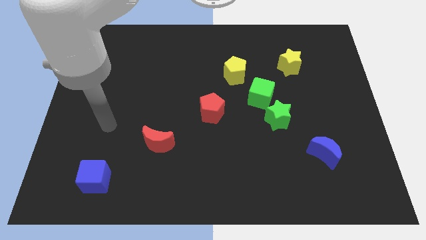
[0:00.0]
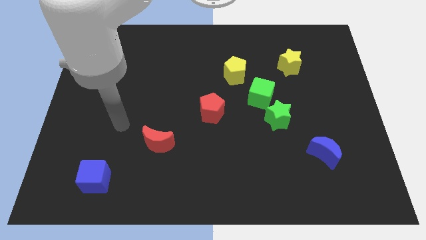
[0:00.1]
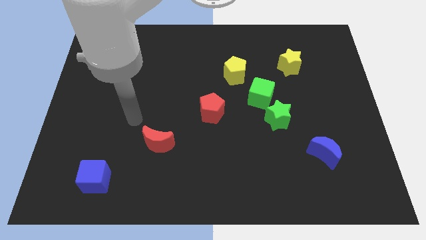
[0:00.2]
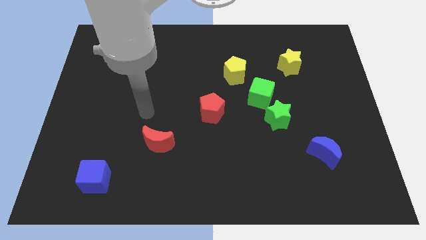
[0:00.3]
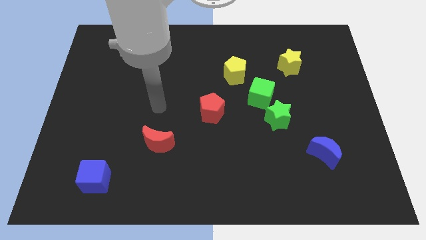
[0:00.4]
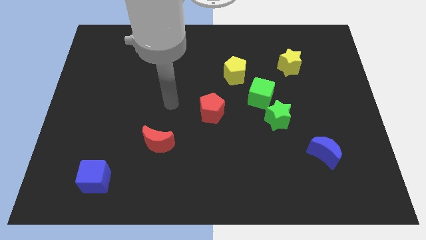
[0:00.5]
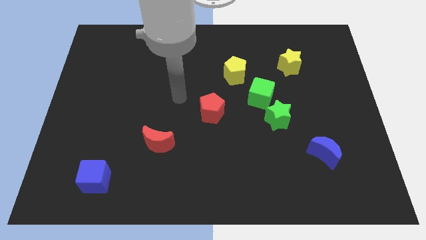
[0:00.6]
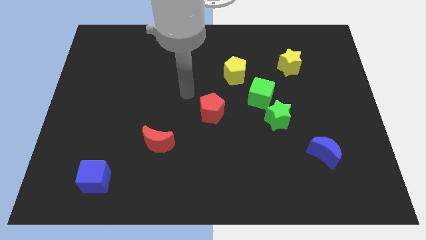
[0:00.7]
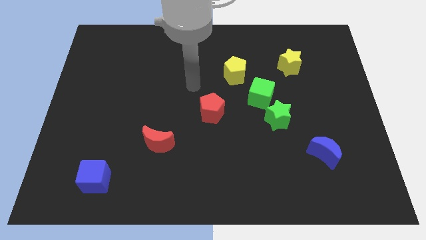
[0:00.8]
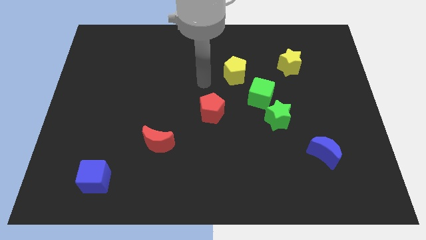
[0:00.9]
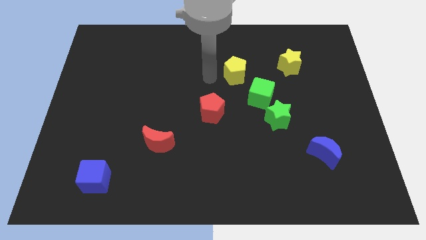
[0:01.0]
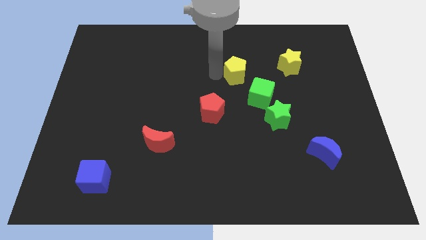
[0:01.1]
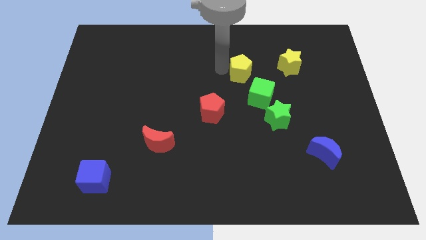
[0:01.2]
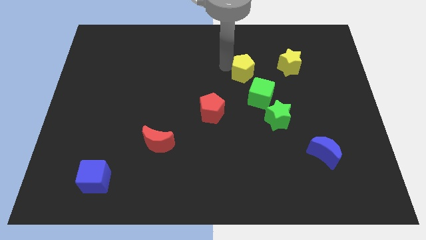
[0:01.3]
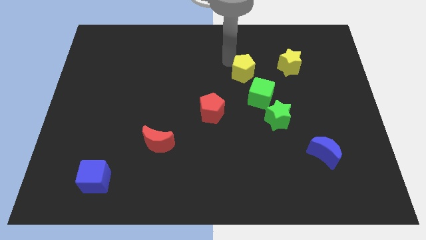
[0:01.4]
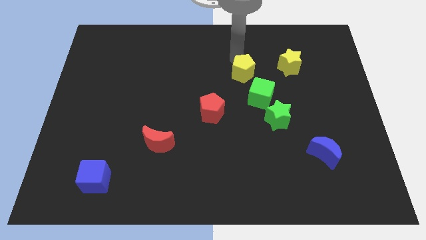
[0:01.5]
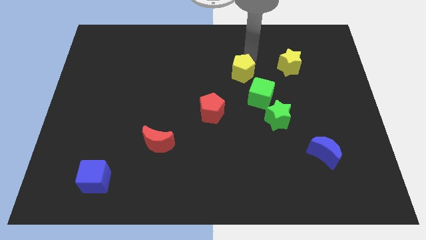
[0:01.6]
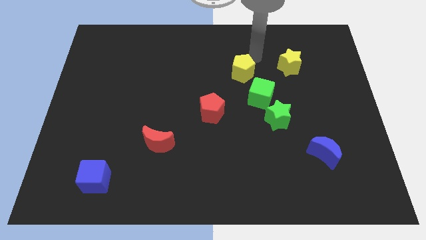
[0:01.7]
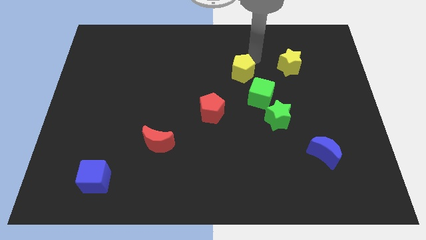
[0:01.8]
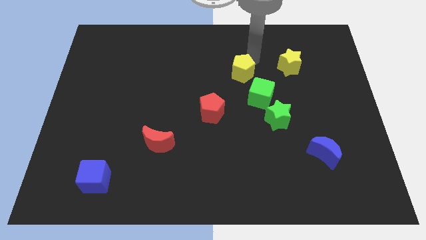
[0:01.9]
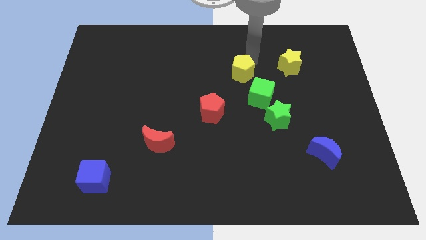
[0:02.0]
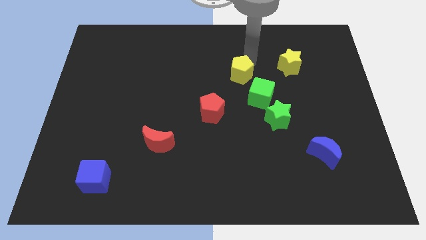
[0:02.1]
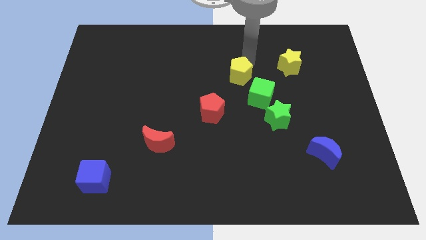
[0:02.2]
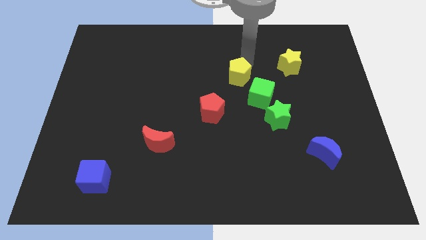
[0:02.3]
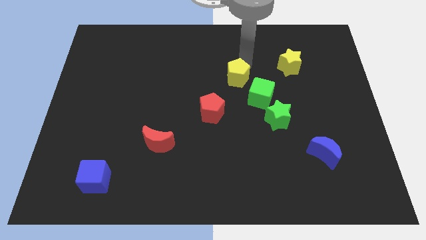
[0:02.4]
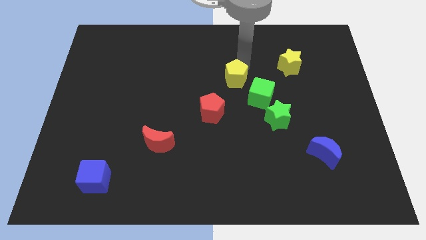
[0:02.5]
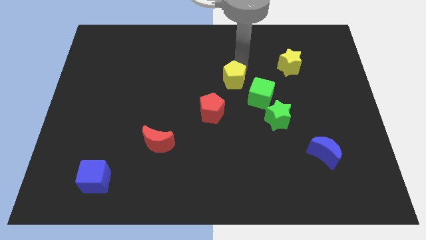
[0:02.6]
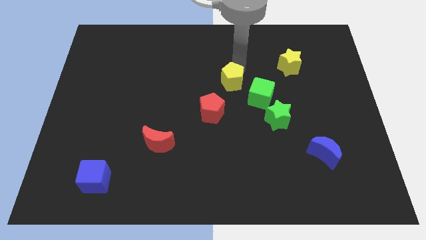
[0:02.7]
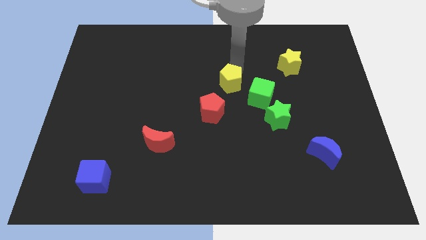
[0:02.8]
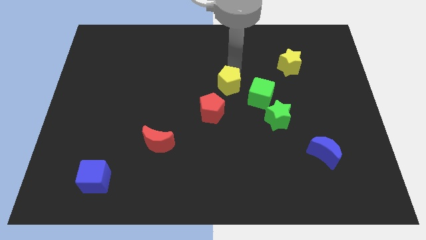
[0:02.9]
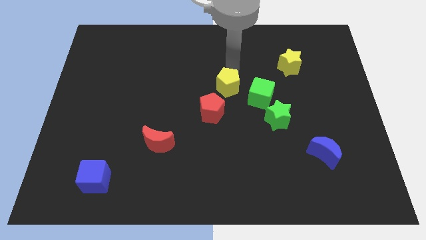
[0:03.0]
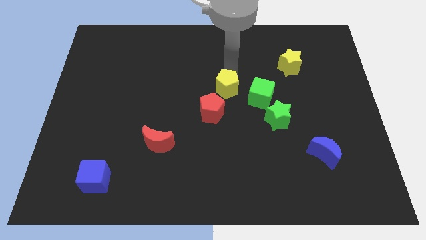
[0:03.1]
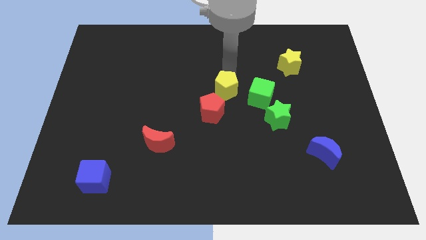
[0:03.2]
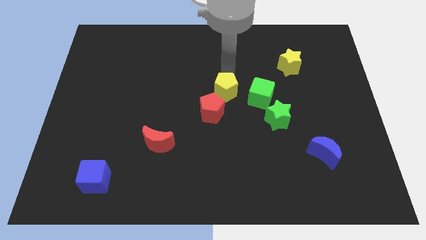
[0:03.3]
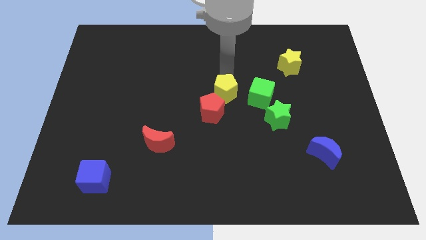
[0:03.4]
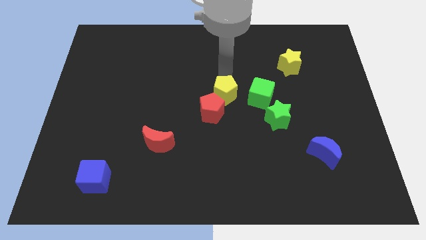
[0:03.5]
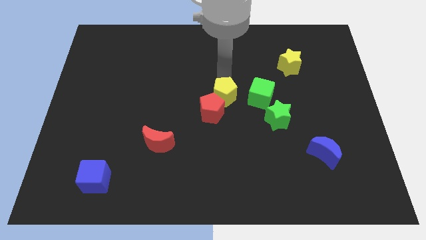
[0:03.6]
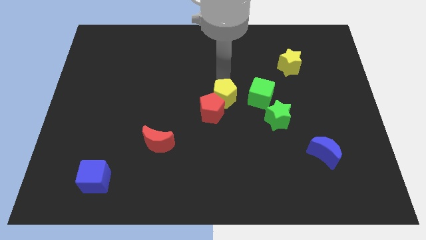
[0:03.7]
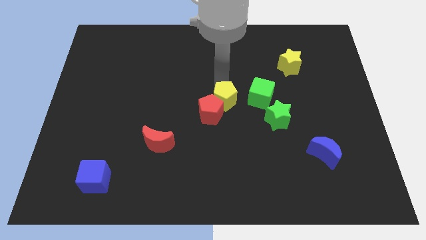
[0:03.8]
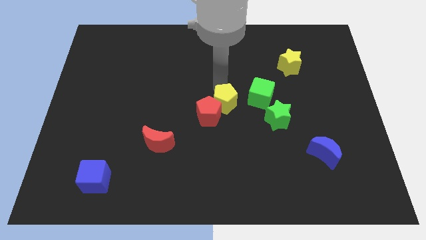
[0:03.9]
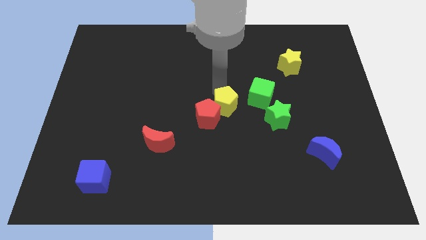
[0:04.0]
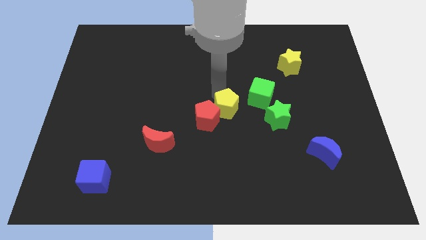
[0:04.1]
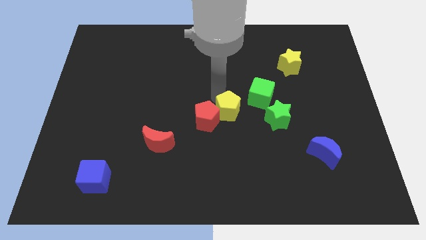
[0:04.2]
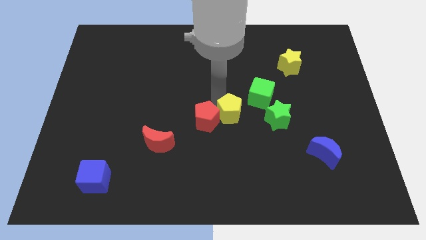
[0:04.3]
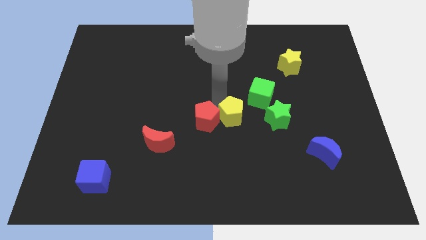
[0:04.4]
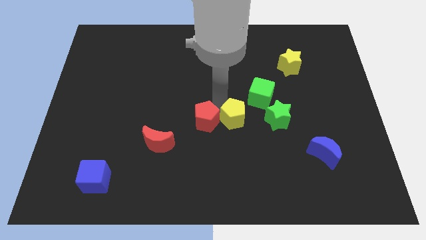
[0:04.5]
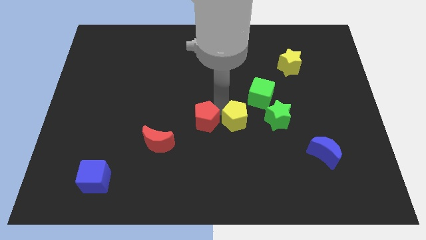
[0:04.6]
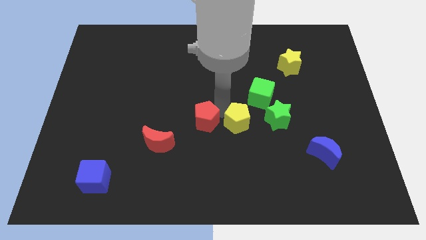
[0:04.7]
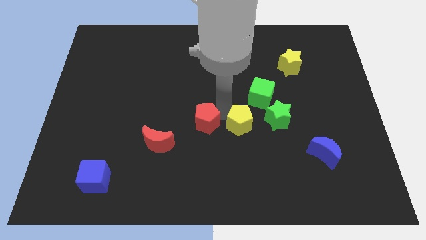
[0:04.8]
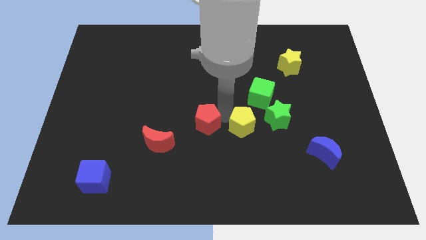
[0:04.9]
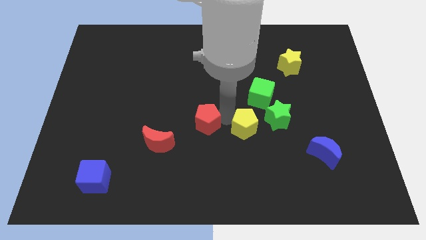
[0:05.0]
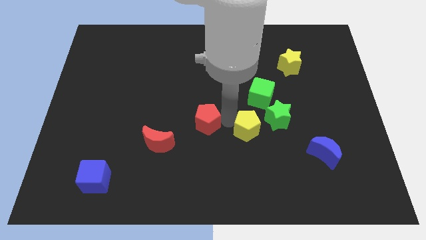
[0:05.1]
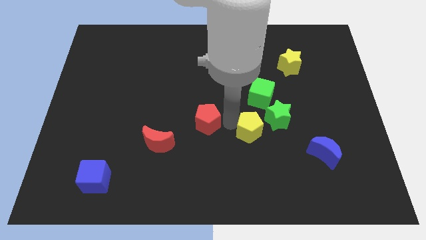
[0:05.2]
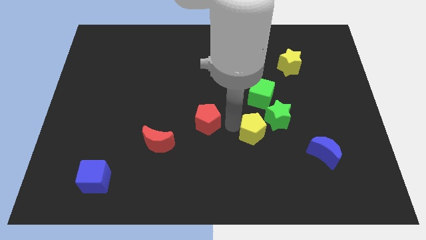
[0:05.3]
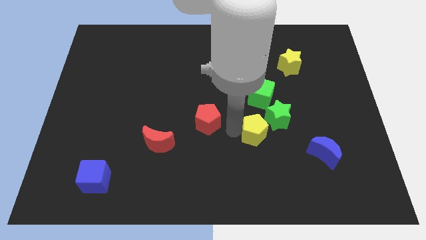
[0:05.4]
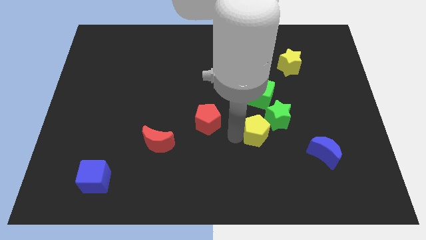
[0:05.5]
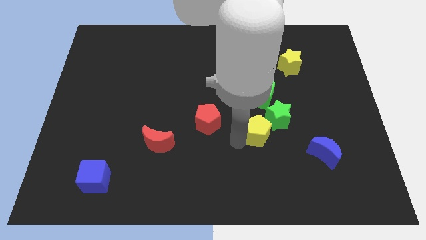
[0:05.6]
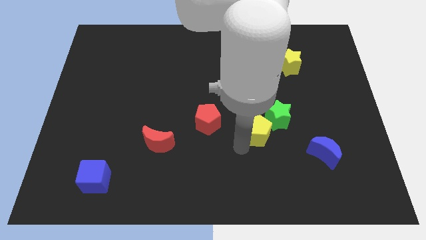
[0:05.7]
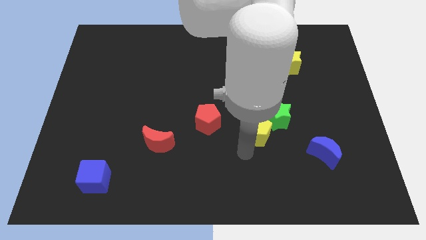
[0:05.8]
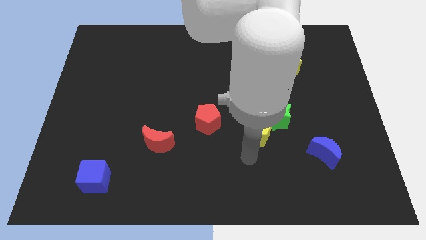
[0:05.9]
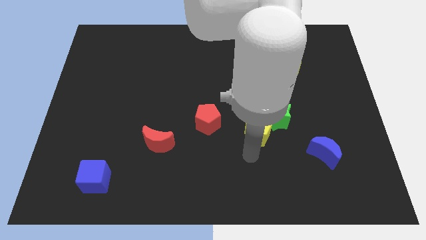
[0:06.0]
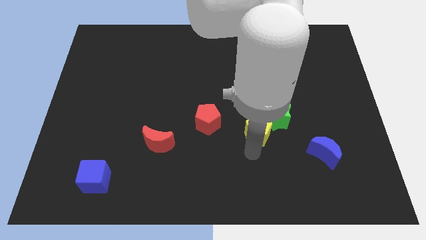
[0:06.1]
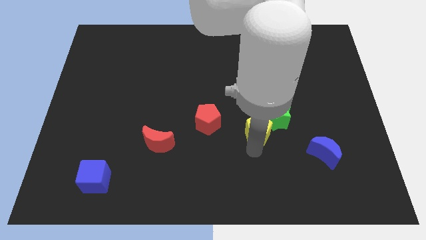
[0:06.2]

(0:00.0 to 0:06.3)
put the yellow pentagon to the green star

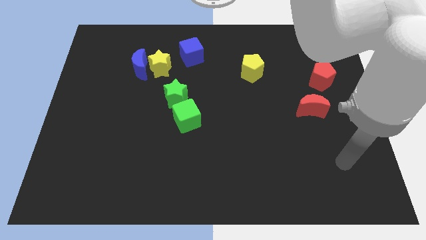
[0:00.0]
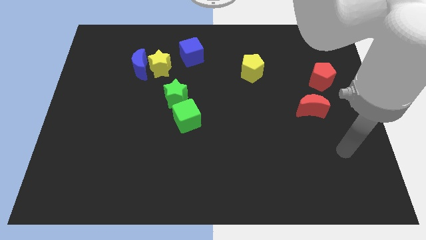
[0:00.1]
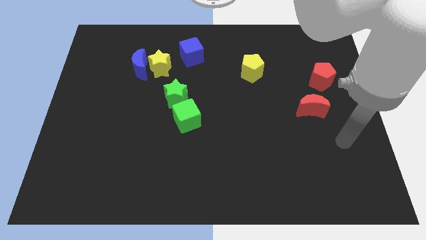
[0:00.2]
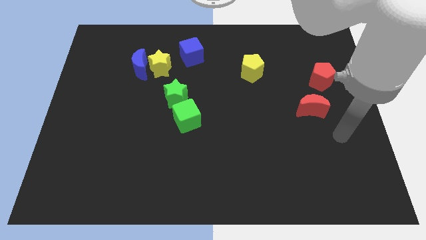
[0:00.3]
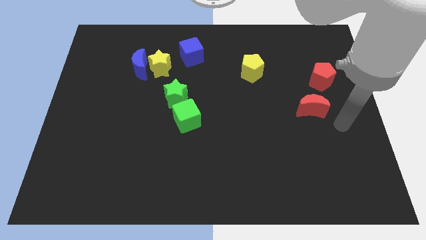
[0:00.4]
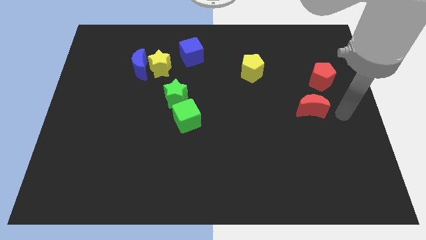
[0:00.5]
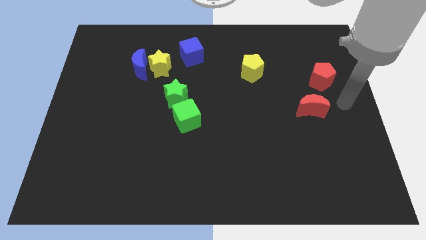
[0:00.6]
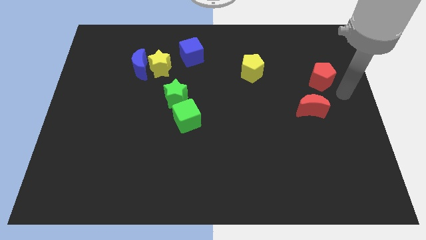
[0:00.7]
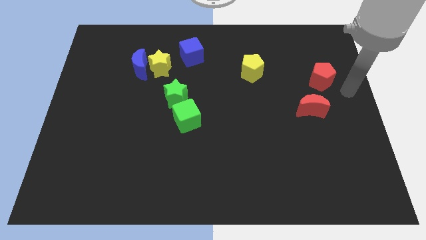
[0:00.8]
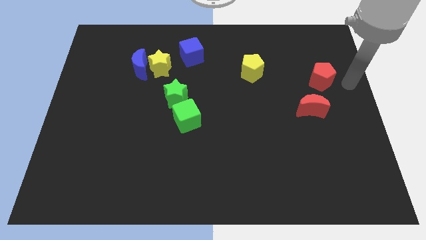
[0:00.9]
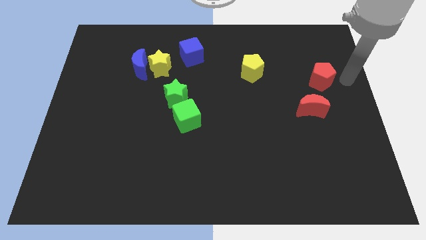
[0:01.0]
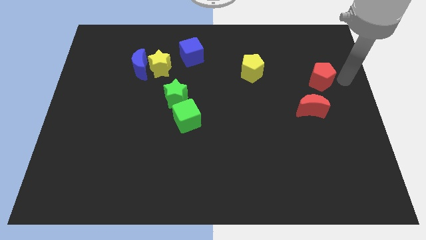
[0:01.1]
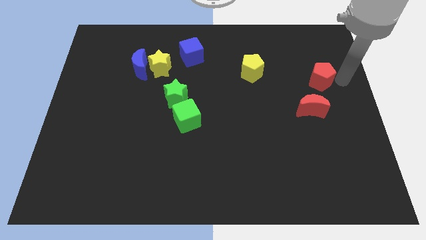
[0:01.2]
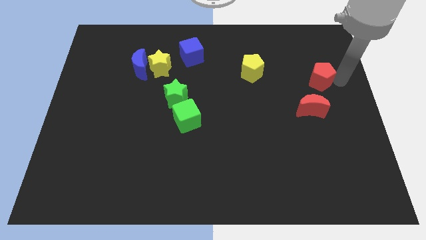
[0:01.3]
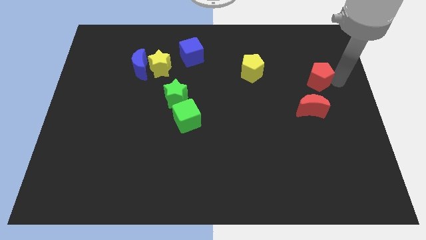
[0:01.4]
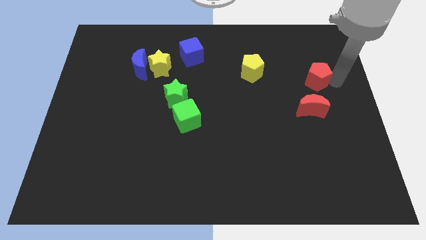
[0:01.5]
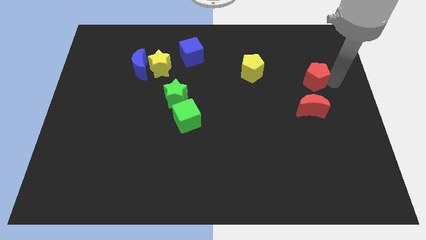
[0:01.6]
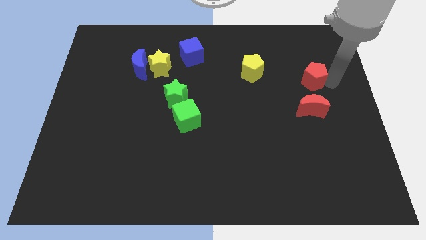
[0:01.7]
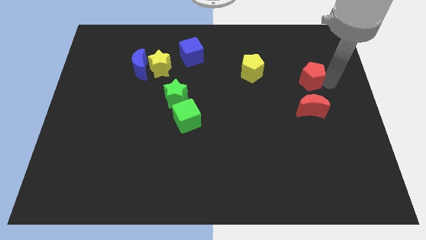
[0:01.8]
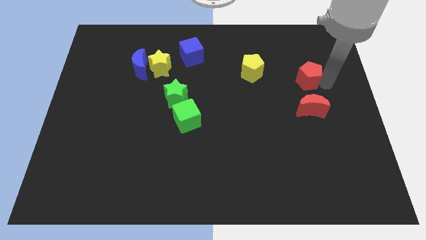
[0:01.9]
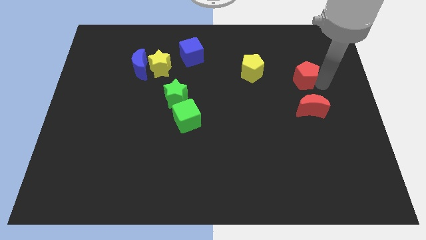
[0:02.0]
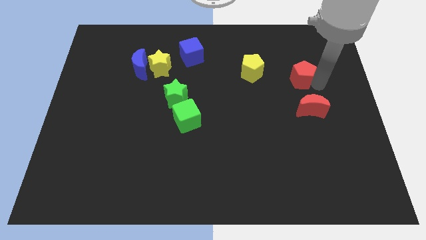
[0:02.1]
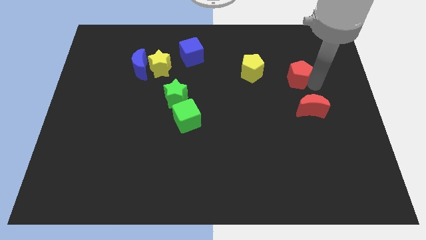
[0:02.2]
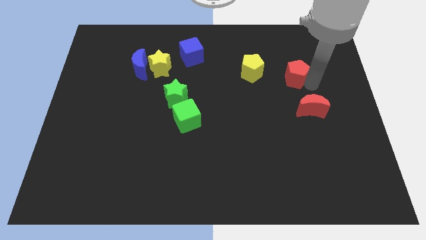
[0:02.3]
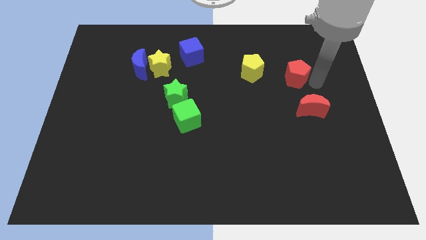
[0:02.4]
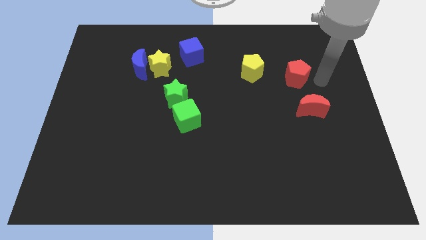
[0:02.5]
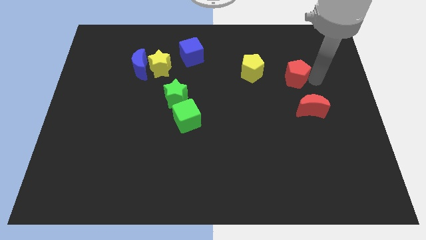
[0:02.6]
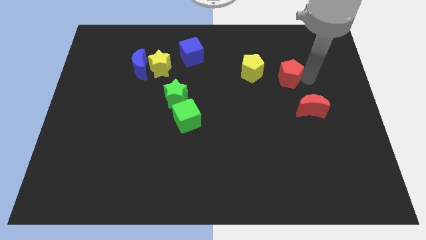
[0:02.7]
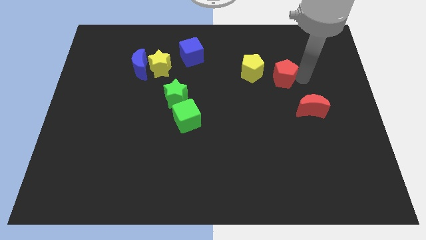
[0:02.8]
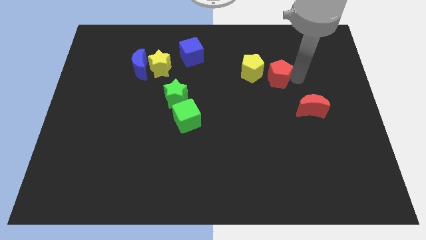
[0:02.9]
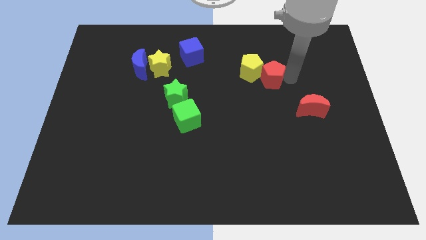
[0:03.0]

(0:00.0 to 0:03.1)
push the red pentagon next to the yellow pentagon
